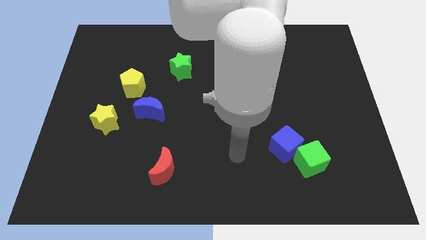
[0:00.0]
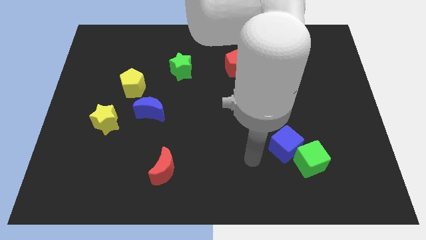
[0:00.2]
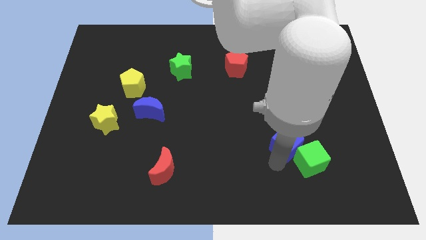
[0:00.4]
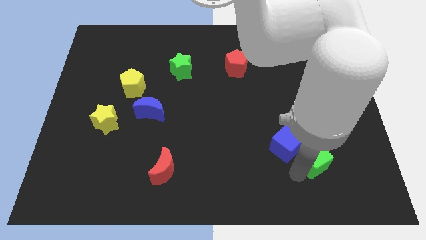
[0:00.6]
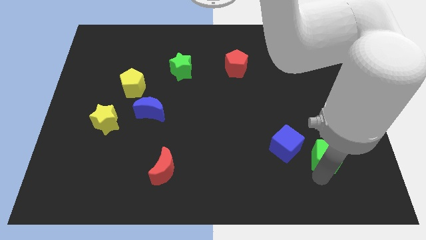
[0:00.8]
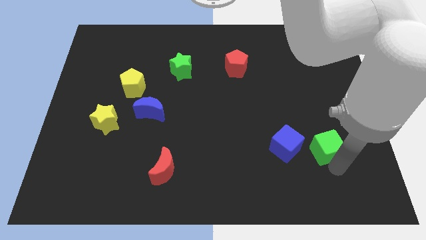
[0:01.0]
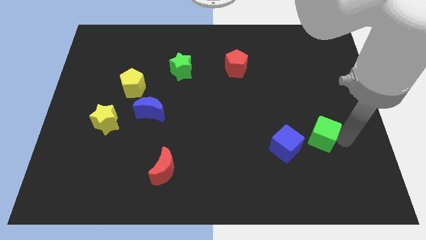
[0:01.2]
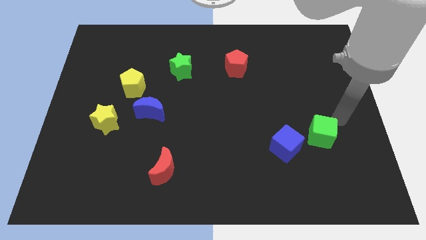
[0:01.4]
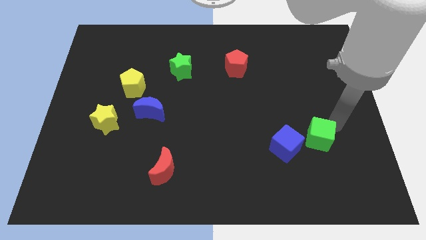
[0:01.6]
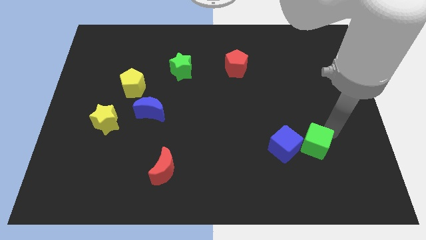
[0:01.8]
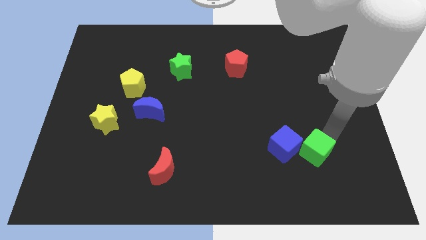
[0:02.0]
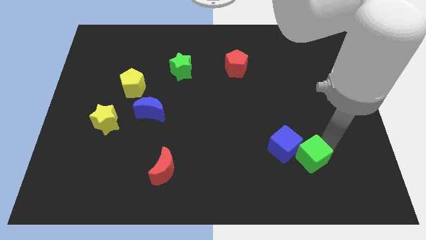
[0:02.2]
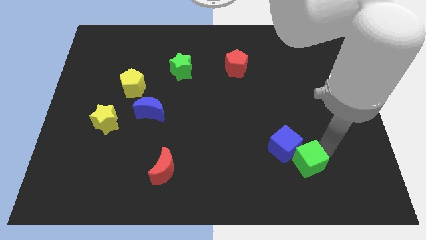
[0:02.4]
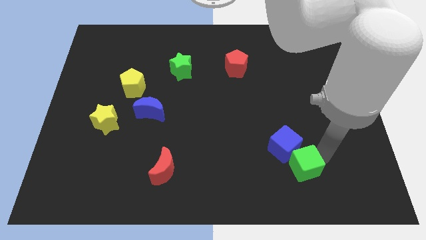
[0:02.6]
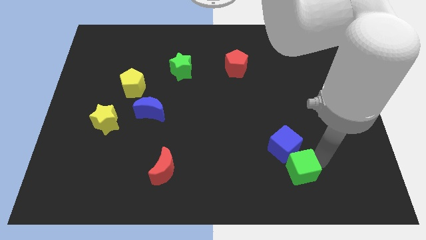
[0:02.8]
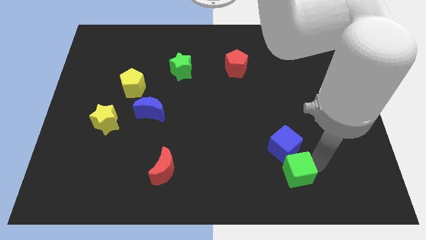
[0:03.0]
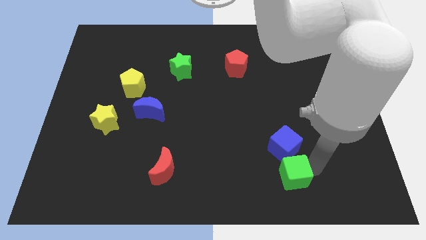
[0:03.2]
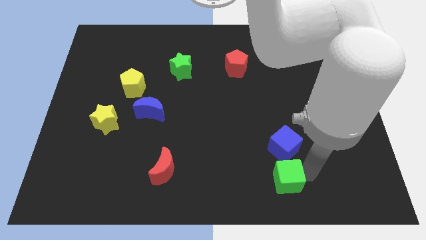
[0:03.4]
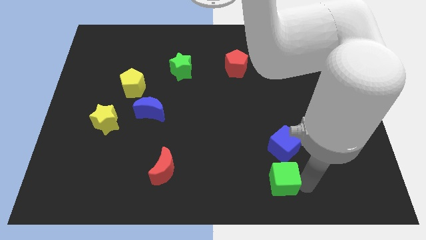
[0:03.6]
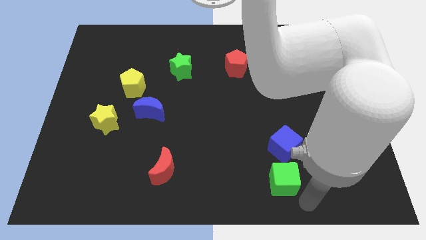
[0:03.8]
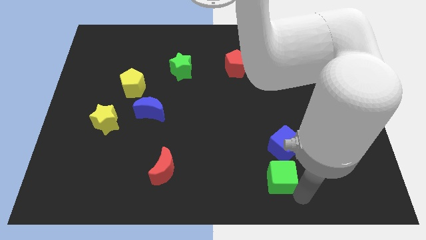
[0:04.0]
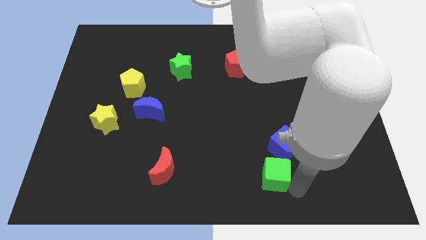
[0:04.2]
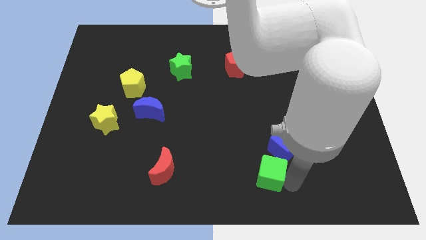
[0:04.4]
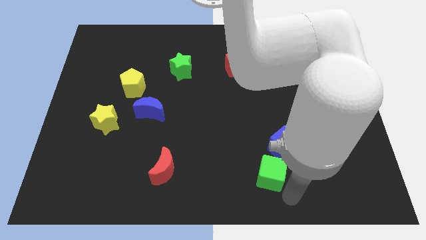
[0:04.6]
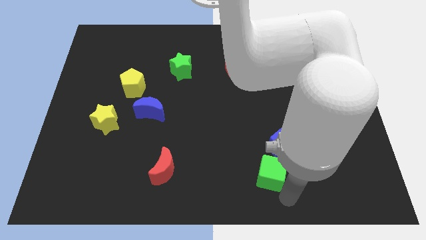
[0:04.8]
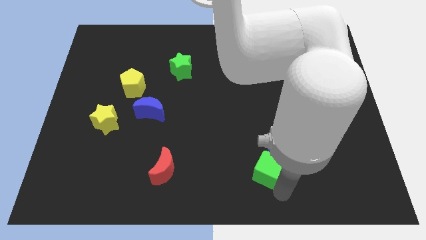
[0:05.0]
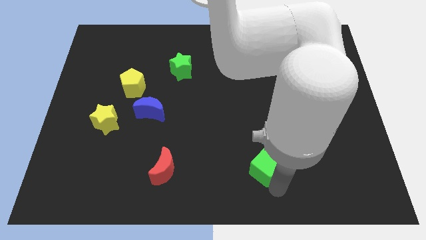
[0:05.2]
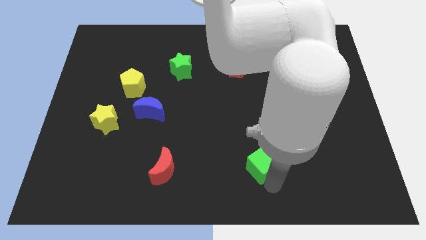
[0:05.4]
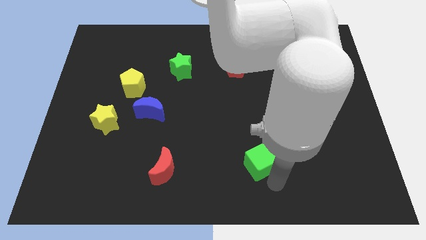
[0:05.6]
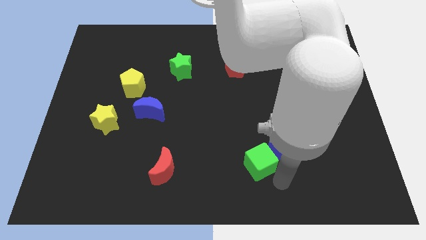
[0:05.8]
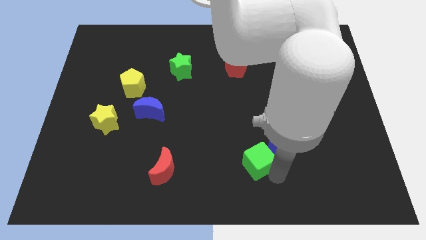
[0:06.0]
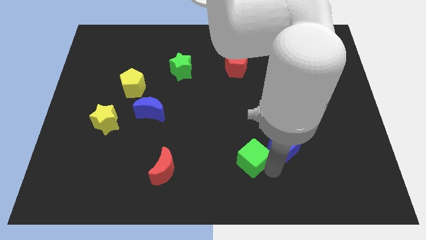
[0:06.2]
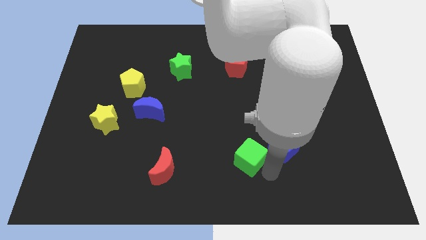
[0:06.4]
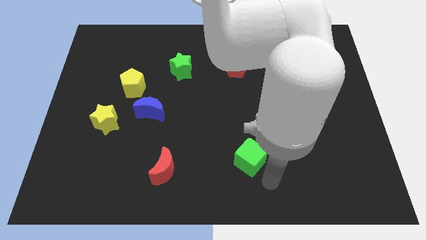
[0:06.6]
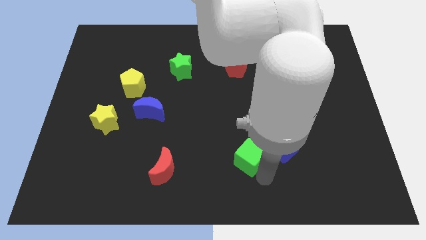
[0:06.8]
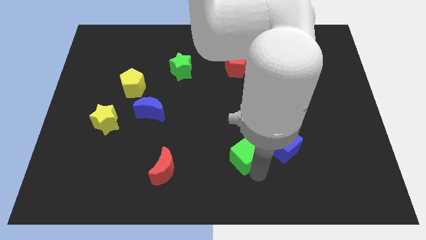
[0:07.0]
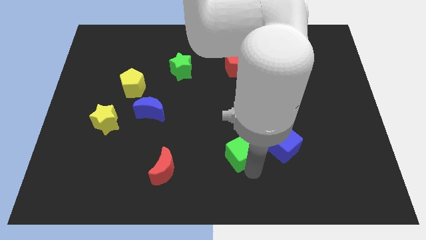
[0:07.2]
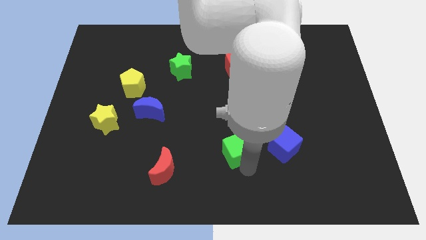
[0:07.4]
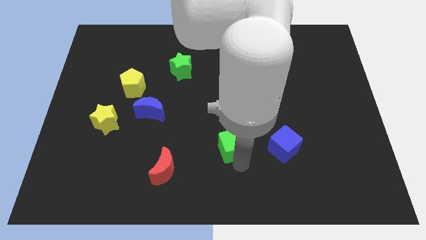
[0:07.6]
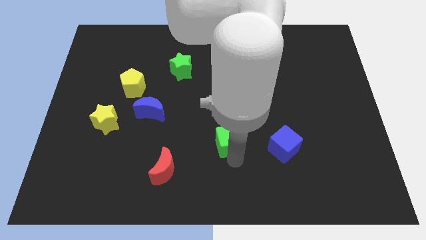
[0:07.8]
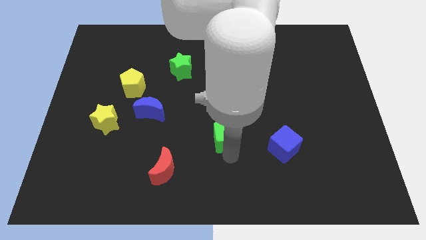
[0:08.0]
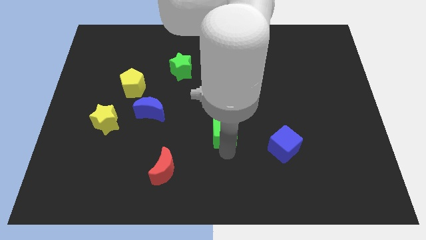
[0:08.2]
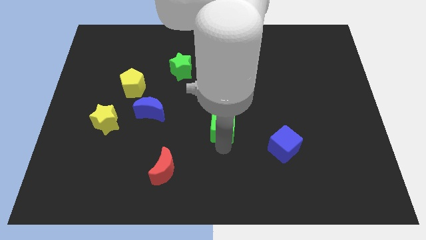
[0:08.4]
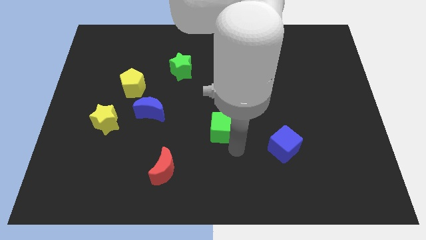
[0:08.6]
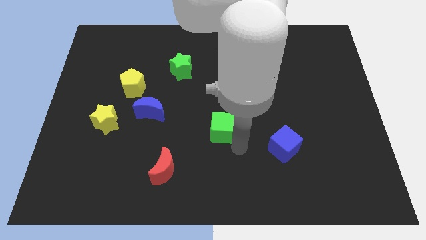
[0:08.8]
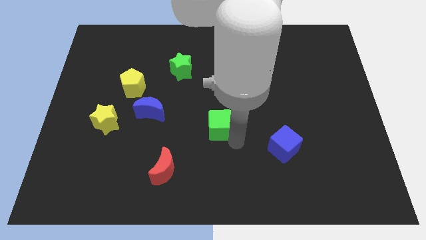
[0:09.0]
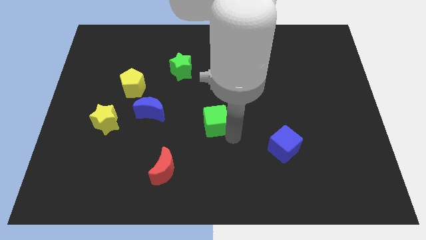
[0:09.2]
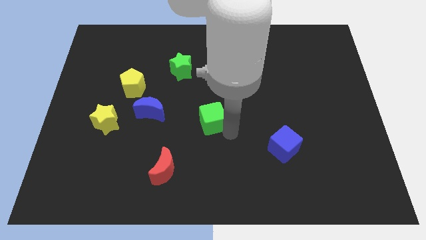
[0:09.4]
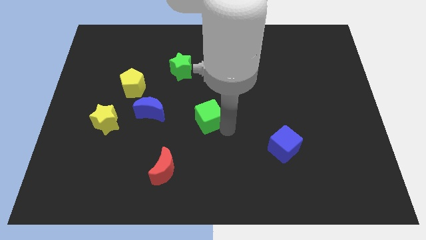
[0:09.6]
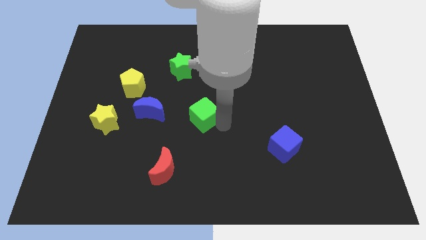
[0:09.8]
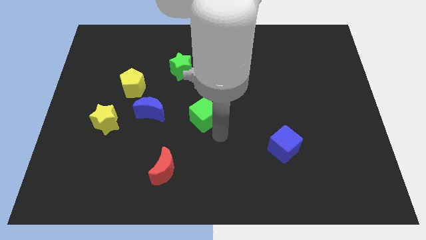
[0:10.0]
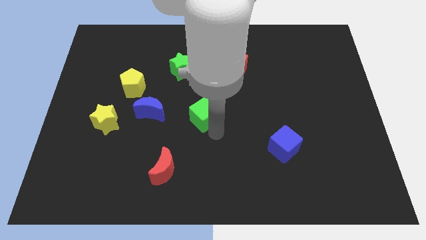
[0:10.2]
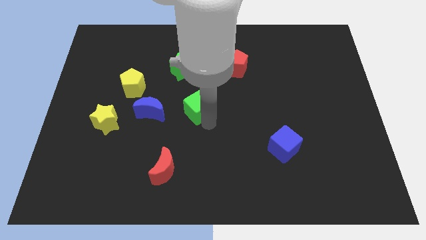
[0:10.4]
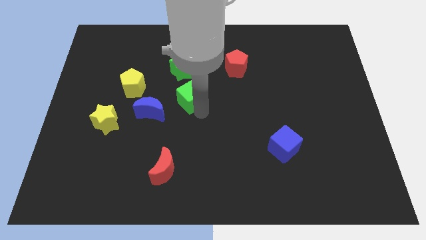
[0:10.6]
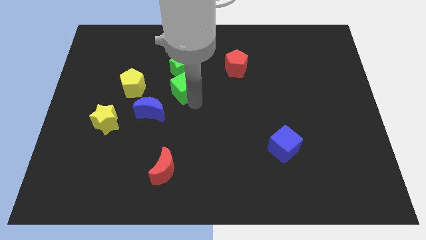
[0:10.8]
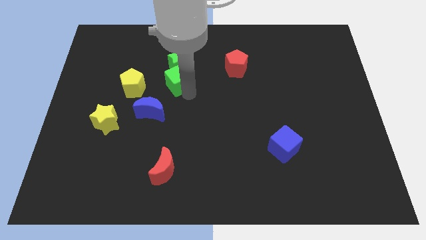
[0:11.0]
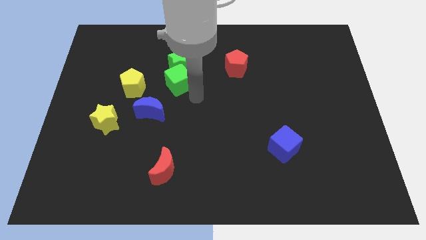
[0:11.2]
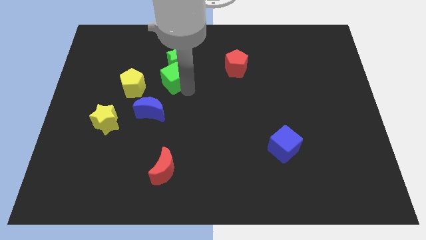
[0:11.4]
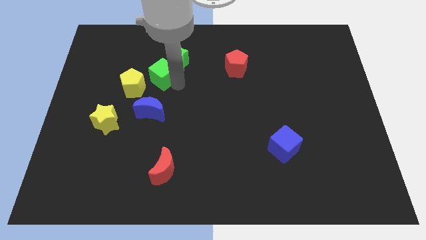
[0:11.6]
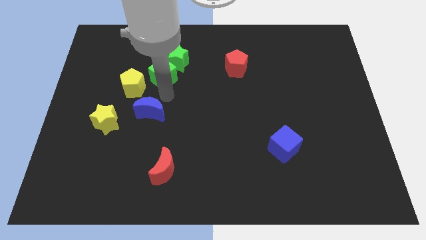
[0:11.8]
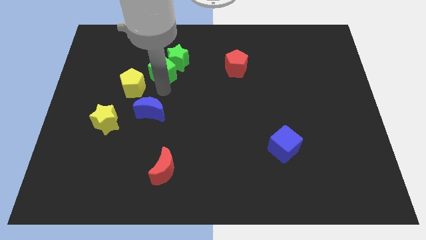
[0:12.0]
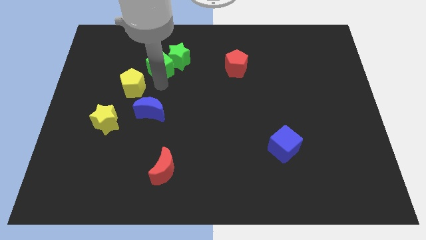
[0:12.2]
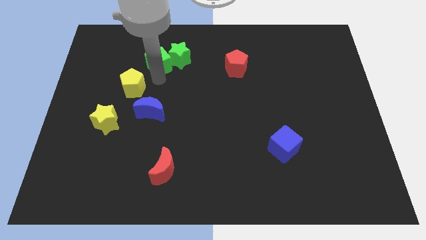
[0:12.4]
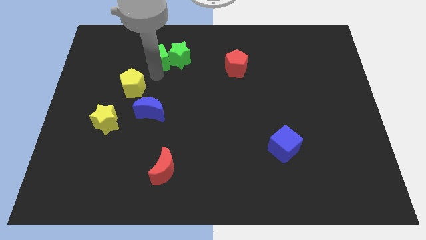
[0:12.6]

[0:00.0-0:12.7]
put the green cube to the top left of the green star

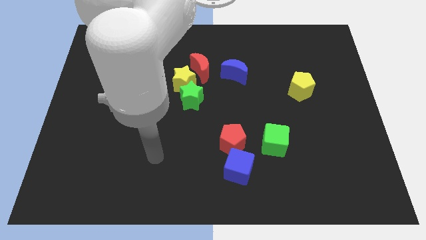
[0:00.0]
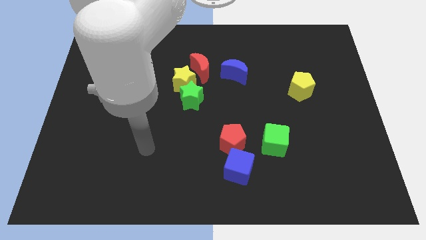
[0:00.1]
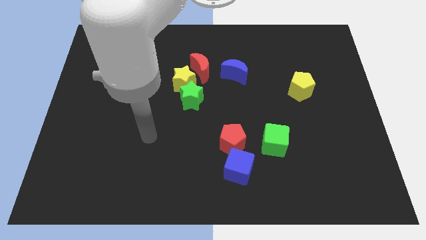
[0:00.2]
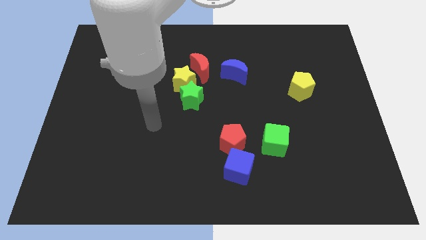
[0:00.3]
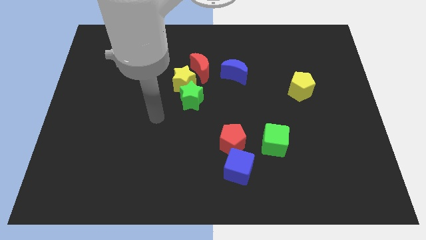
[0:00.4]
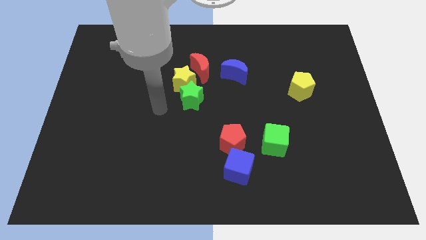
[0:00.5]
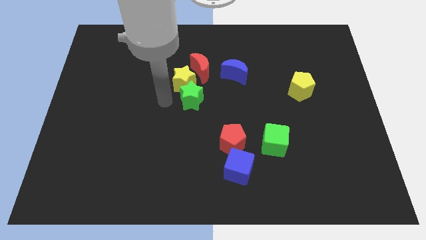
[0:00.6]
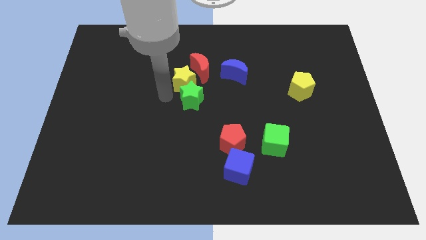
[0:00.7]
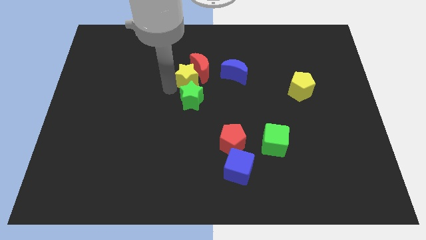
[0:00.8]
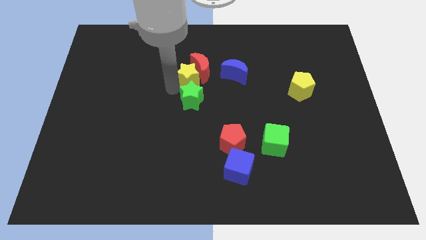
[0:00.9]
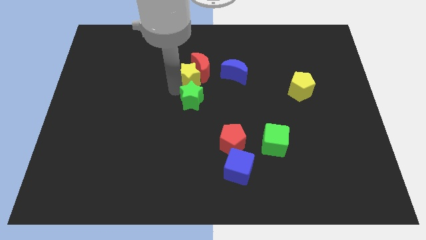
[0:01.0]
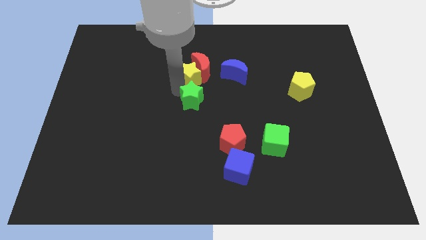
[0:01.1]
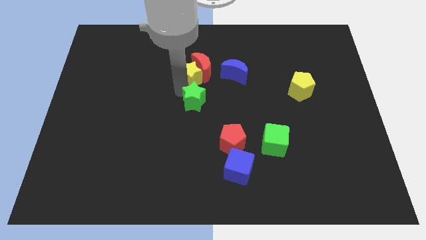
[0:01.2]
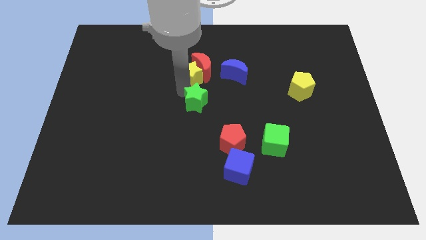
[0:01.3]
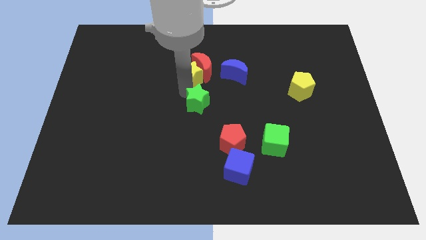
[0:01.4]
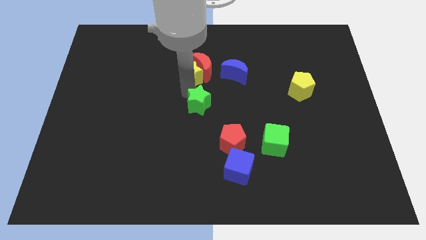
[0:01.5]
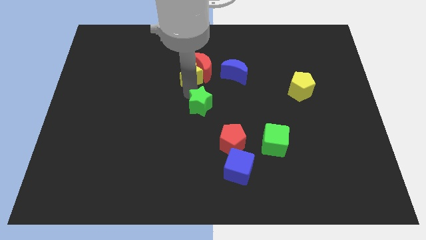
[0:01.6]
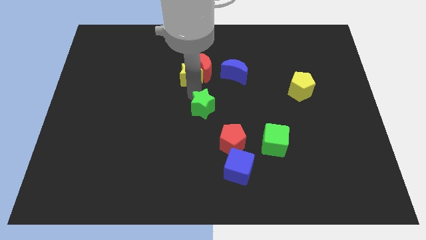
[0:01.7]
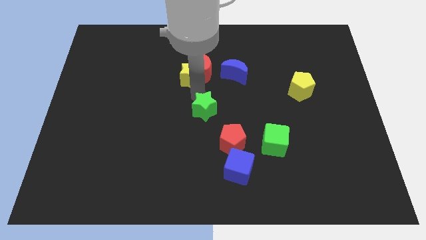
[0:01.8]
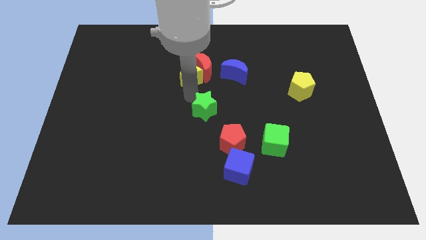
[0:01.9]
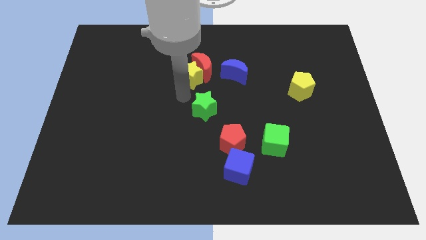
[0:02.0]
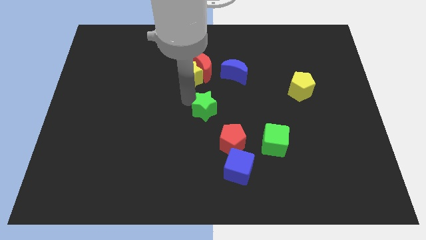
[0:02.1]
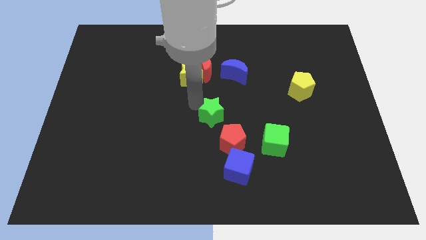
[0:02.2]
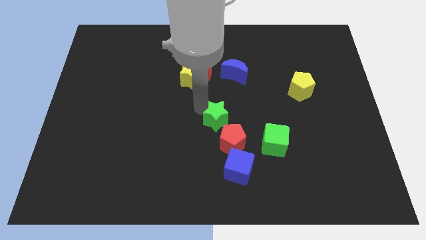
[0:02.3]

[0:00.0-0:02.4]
slide the green star to the top side of the blue cube

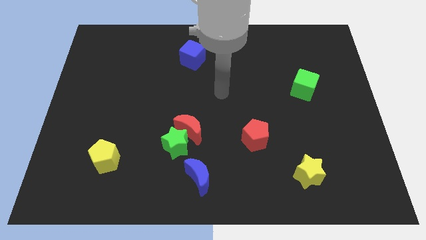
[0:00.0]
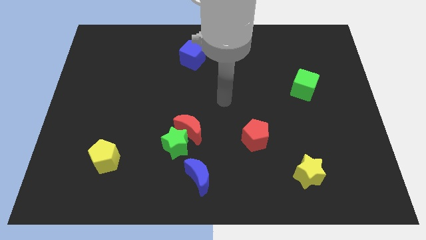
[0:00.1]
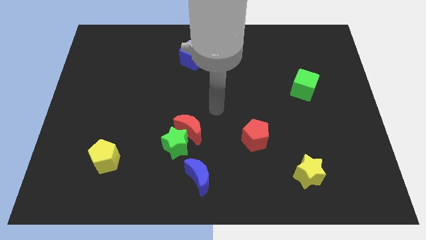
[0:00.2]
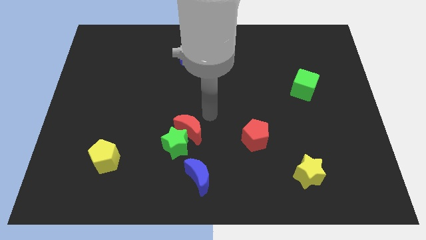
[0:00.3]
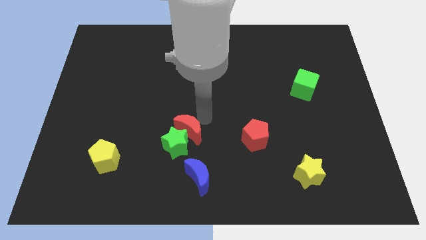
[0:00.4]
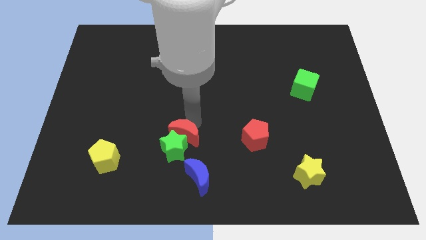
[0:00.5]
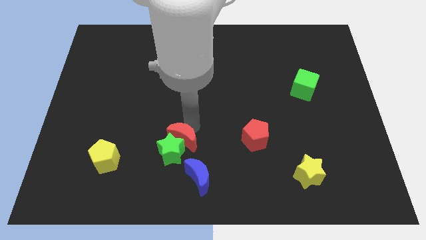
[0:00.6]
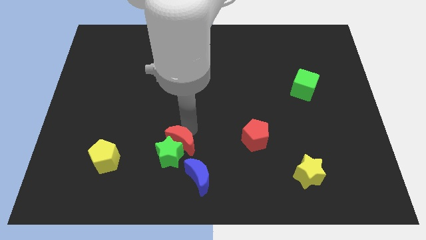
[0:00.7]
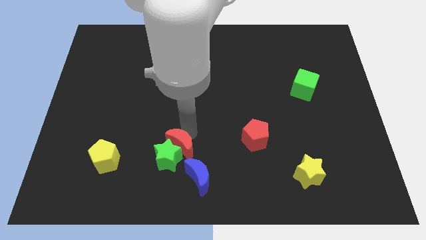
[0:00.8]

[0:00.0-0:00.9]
push the green star to the left side of the blue moon
